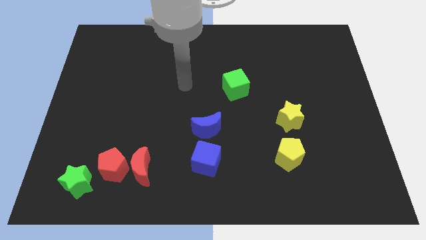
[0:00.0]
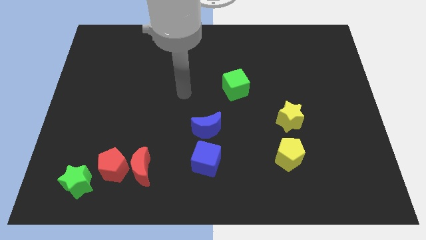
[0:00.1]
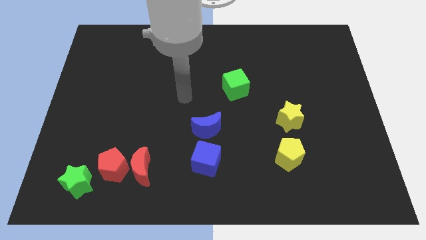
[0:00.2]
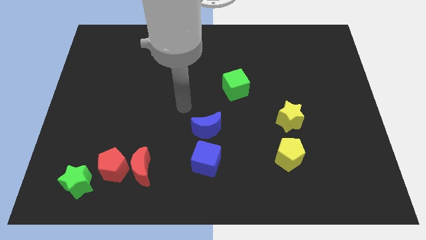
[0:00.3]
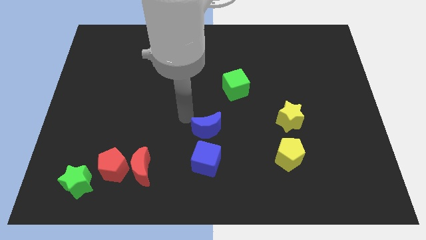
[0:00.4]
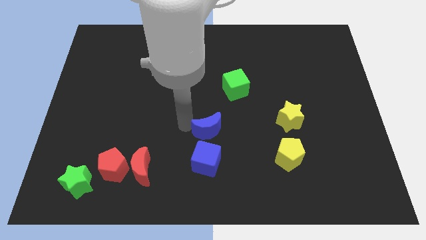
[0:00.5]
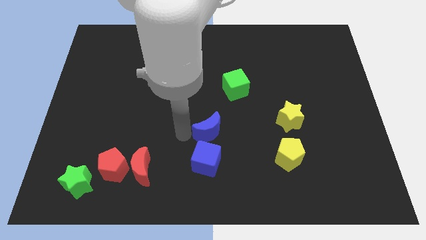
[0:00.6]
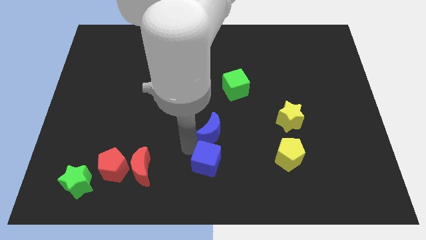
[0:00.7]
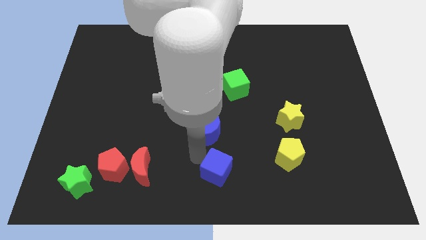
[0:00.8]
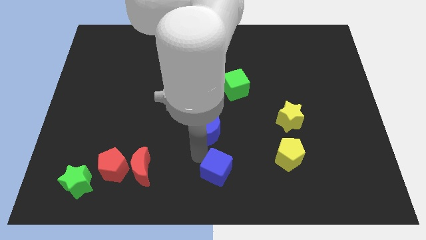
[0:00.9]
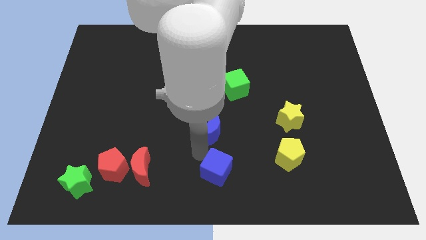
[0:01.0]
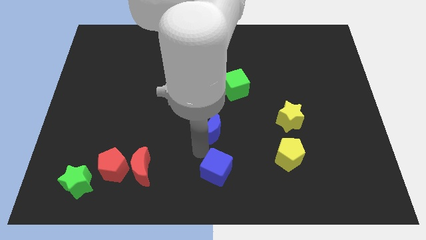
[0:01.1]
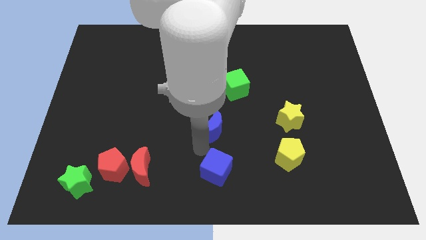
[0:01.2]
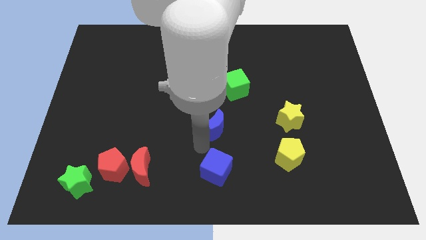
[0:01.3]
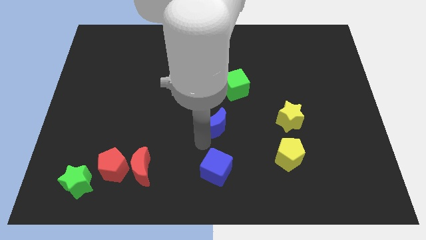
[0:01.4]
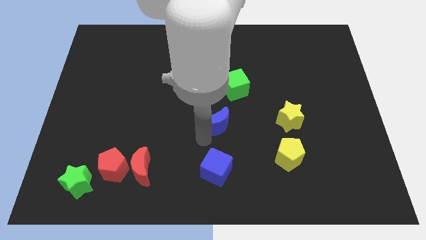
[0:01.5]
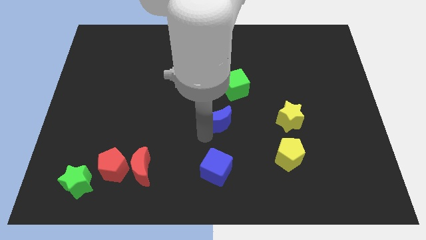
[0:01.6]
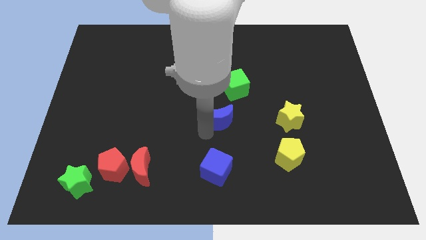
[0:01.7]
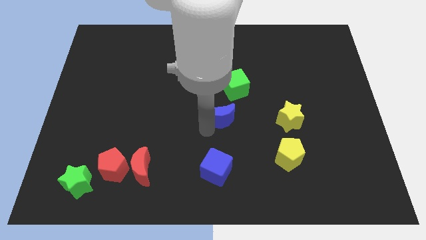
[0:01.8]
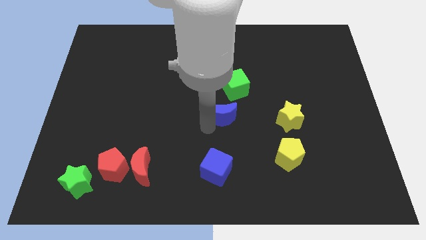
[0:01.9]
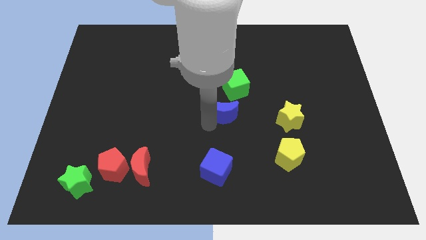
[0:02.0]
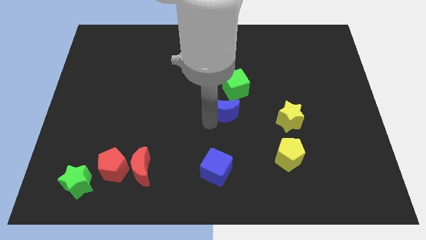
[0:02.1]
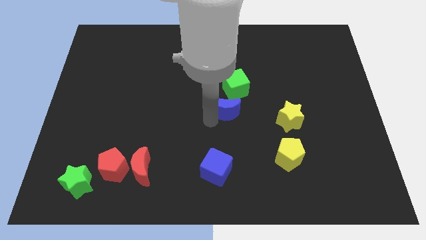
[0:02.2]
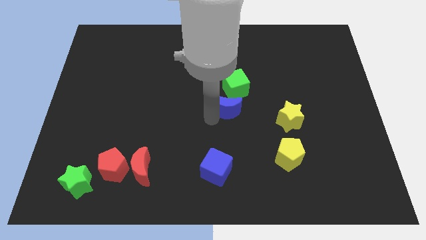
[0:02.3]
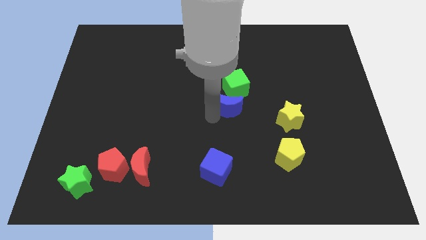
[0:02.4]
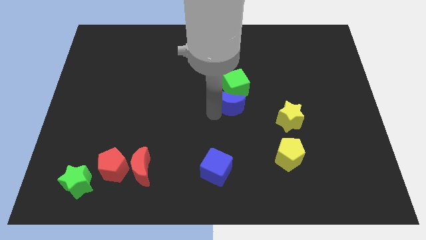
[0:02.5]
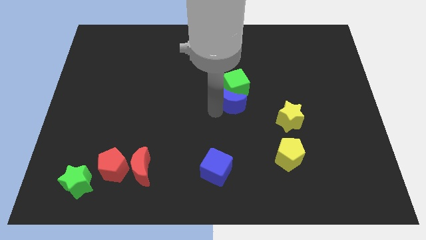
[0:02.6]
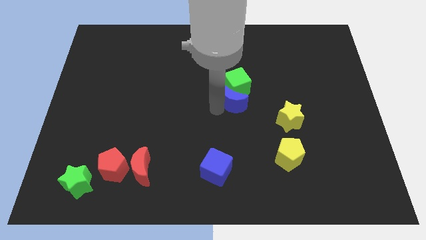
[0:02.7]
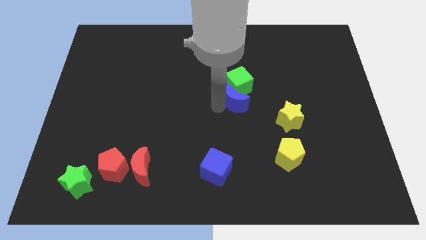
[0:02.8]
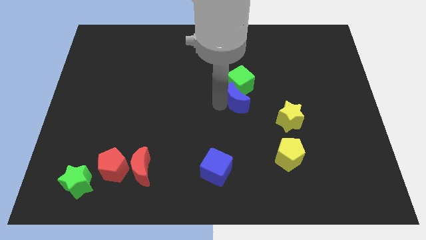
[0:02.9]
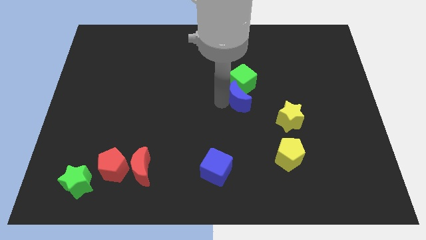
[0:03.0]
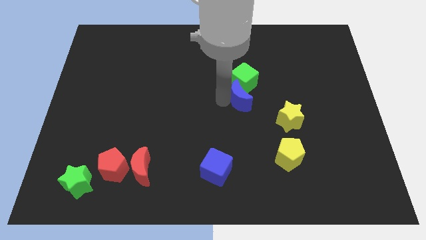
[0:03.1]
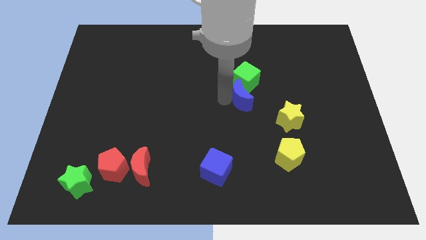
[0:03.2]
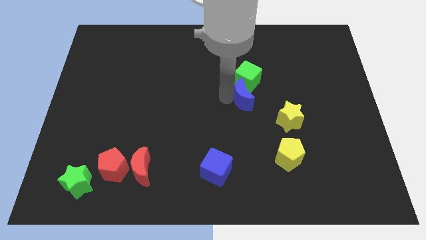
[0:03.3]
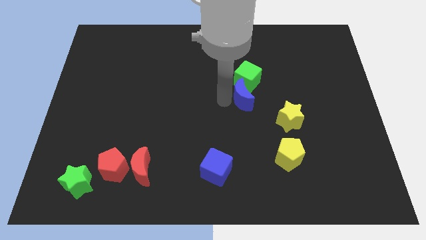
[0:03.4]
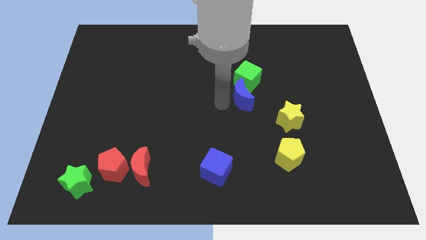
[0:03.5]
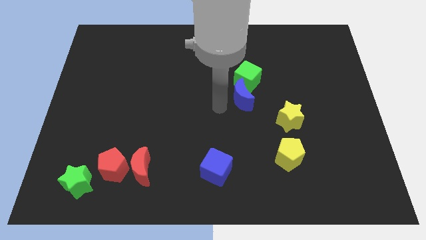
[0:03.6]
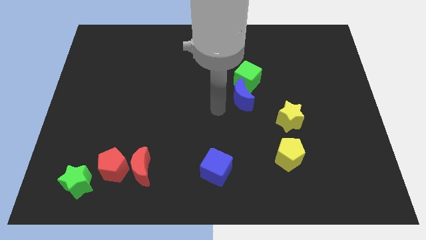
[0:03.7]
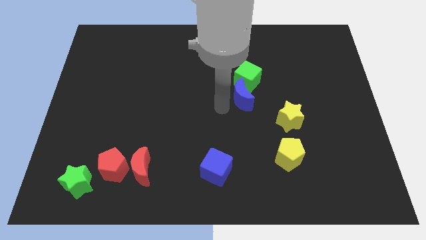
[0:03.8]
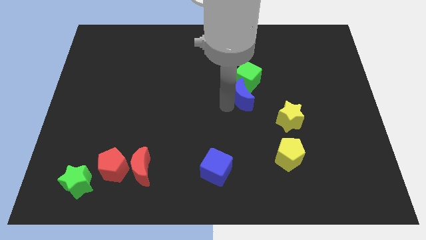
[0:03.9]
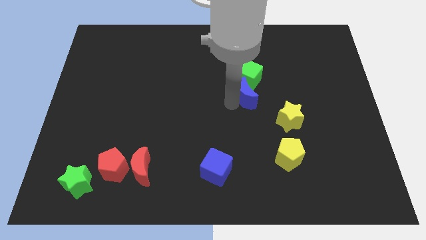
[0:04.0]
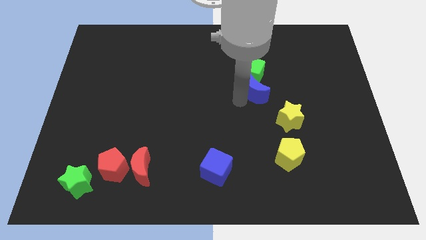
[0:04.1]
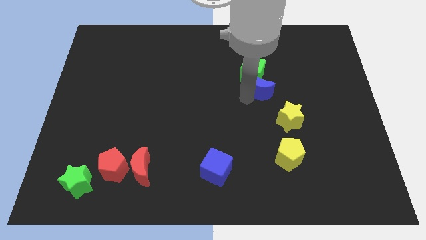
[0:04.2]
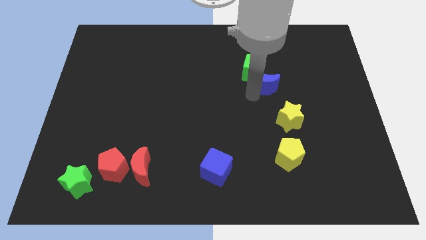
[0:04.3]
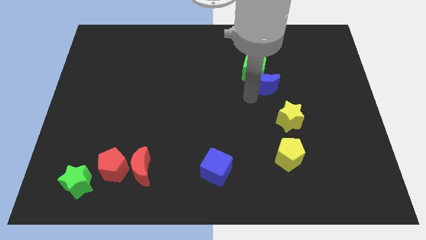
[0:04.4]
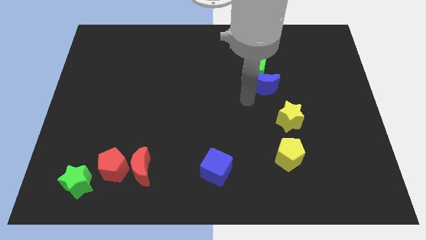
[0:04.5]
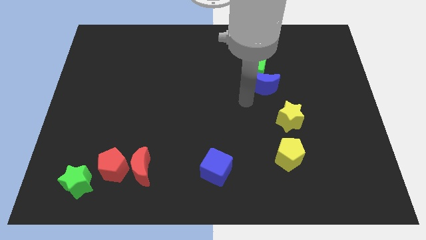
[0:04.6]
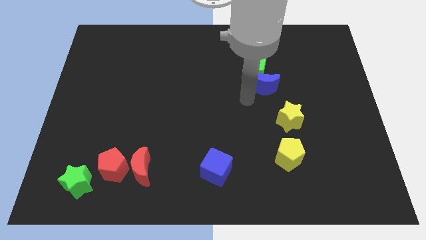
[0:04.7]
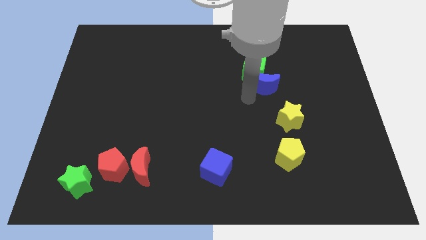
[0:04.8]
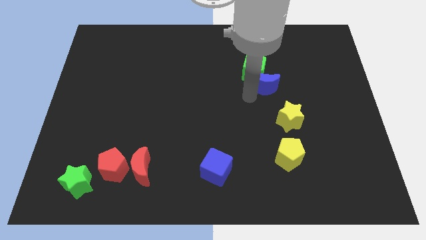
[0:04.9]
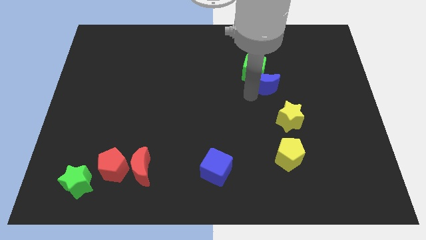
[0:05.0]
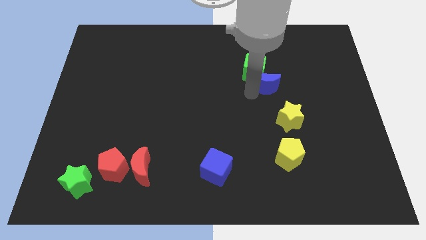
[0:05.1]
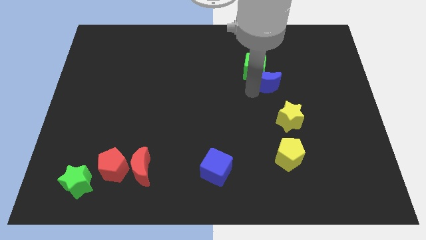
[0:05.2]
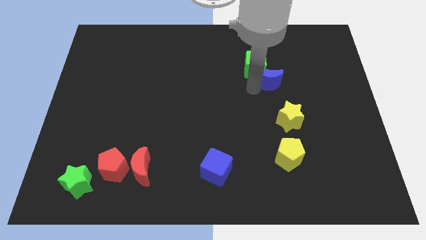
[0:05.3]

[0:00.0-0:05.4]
slide the blue moon upwards and right diagonally

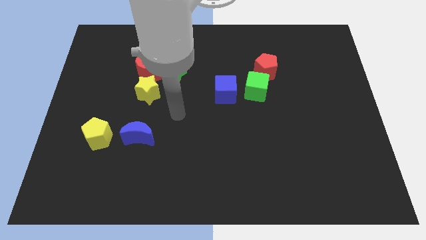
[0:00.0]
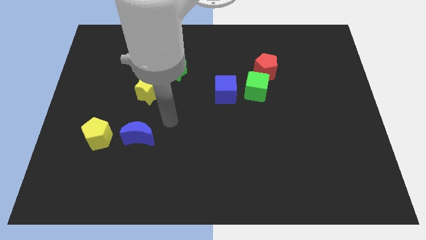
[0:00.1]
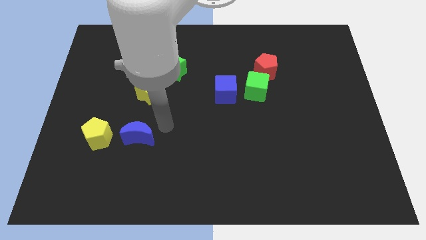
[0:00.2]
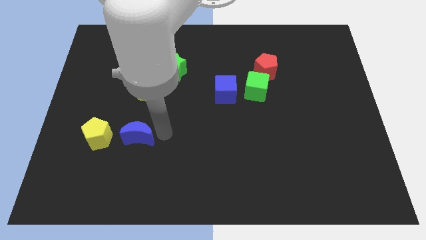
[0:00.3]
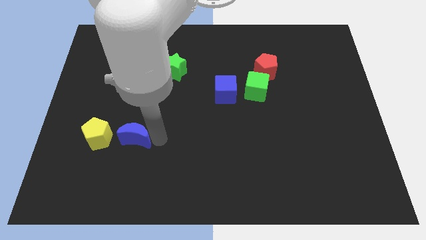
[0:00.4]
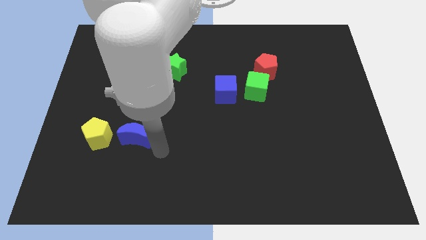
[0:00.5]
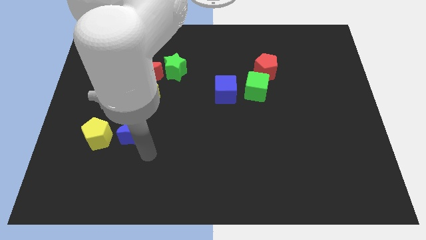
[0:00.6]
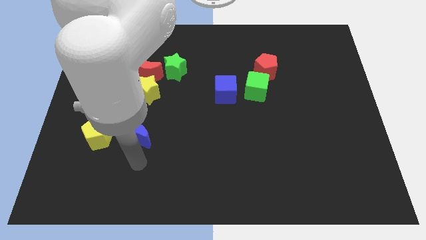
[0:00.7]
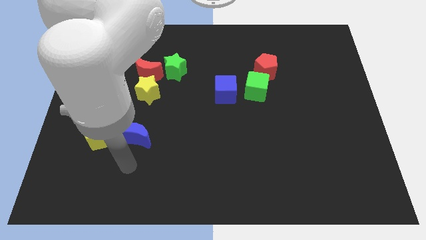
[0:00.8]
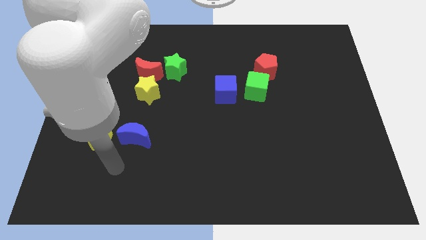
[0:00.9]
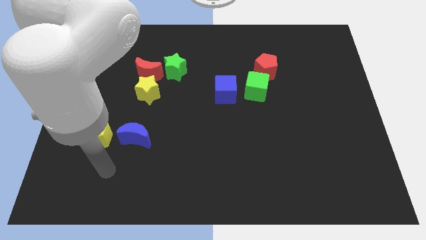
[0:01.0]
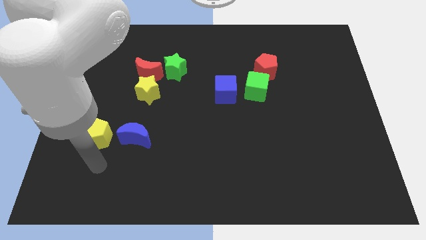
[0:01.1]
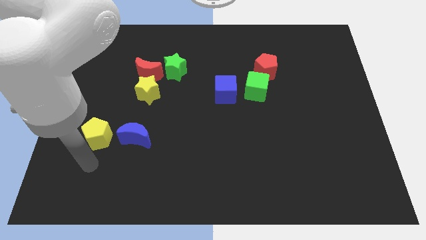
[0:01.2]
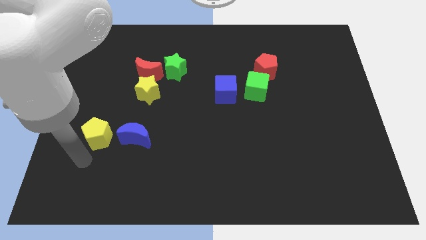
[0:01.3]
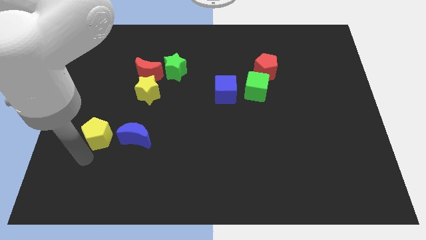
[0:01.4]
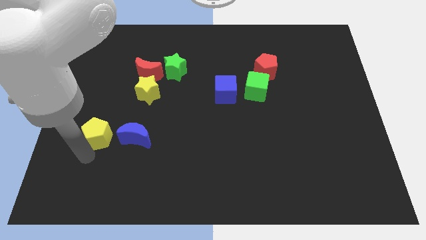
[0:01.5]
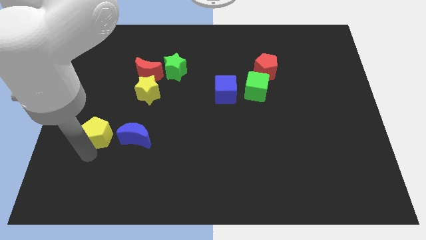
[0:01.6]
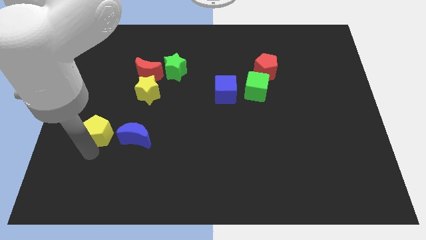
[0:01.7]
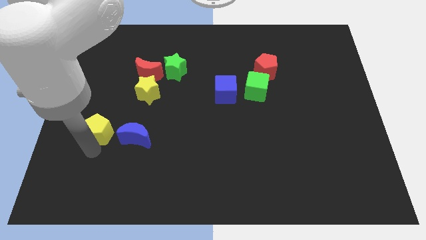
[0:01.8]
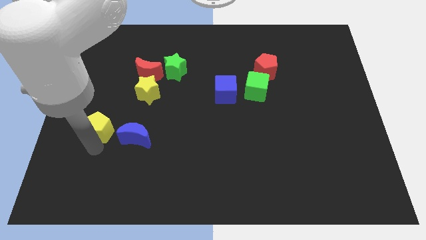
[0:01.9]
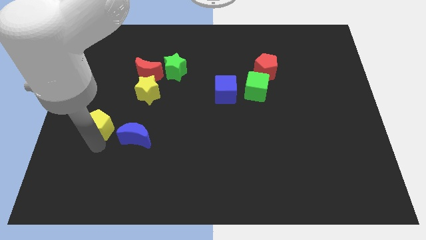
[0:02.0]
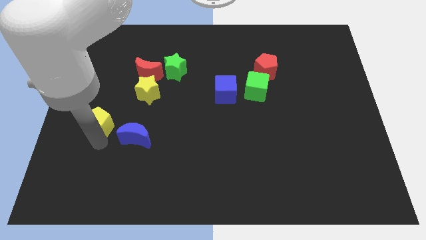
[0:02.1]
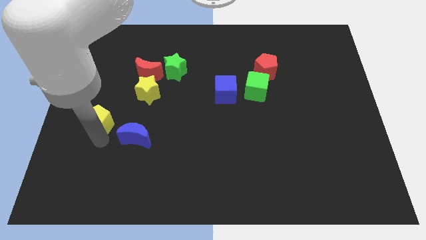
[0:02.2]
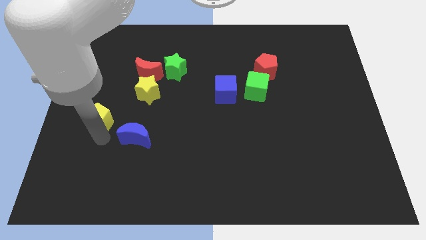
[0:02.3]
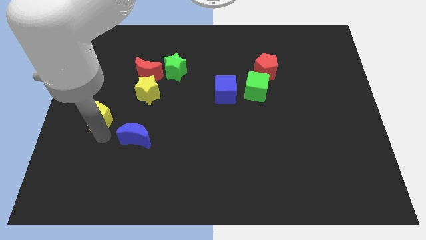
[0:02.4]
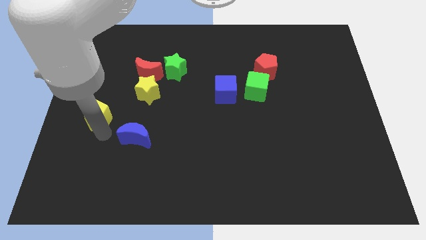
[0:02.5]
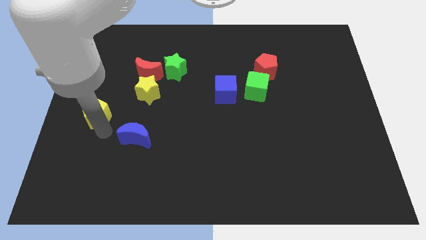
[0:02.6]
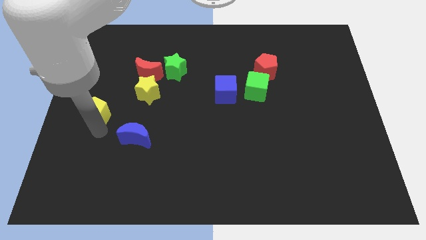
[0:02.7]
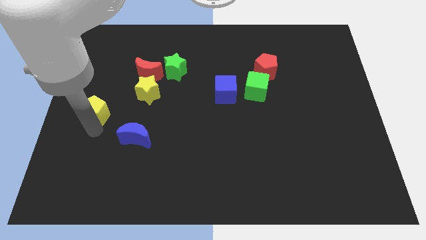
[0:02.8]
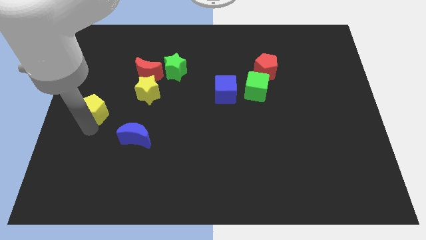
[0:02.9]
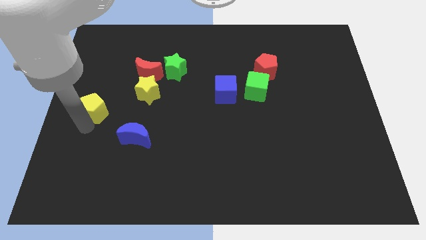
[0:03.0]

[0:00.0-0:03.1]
move the yellow pentagon up a bit
